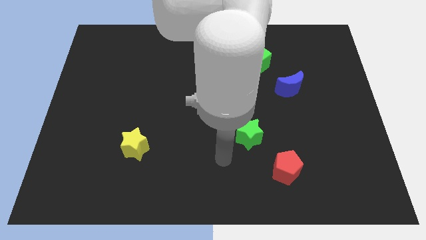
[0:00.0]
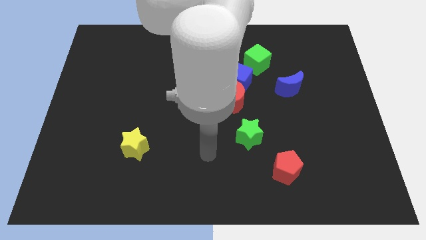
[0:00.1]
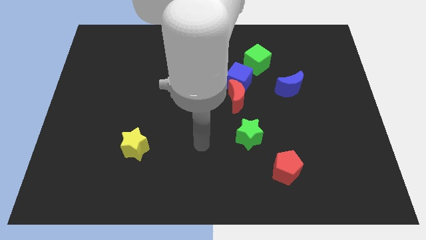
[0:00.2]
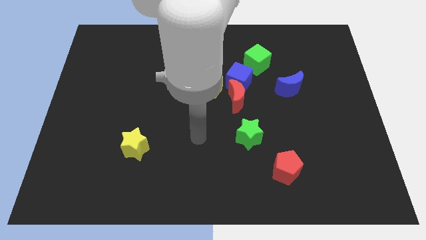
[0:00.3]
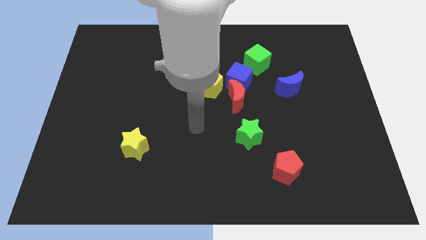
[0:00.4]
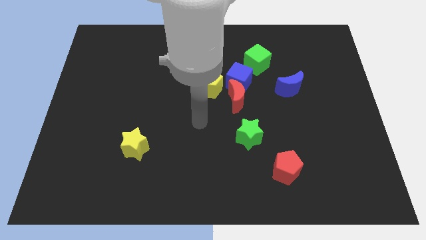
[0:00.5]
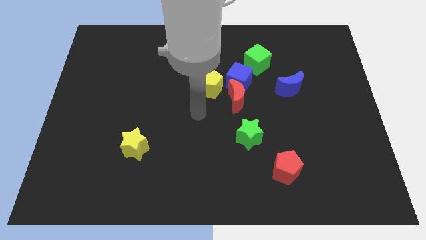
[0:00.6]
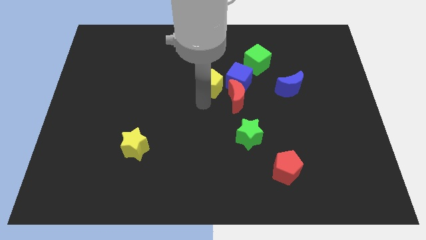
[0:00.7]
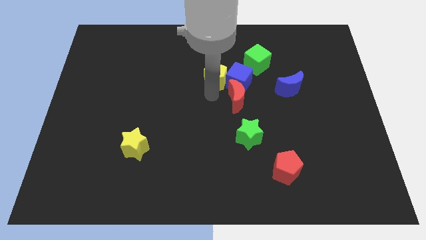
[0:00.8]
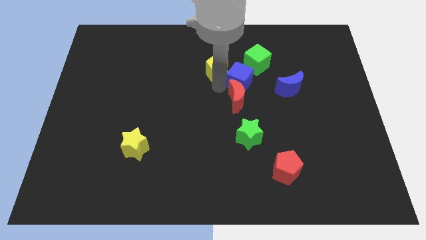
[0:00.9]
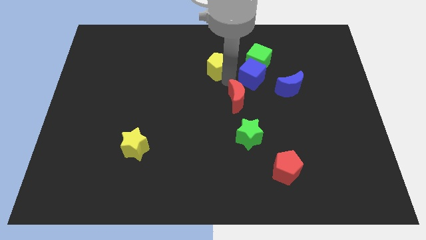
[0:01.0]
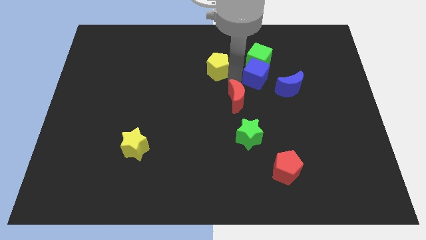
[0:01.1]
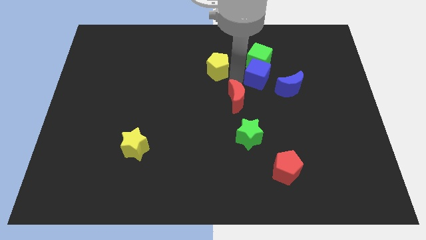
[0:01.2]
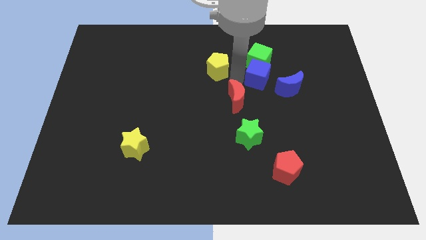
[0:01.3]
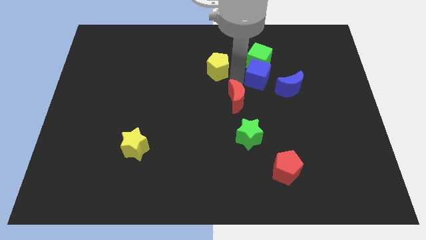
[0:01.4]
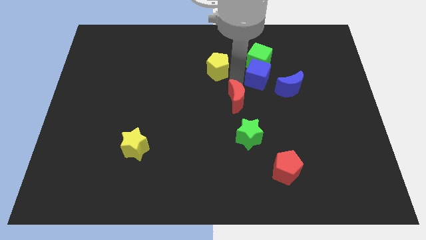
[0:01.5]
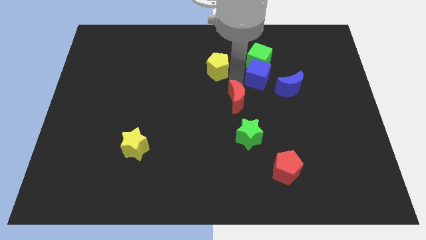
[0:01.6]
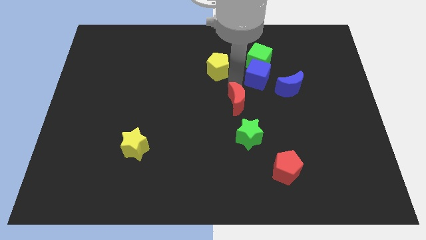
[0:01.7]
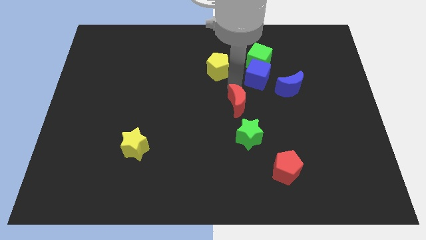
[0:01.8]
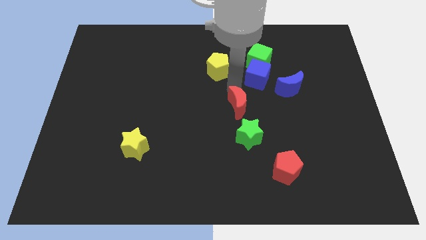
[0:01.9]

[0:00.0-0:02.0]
separate the red moon from the blue cube and yellow pentagon

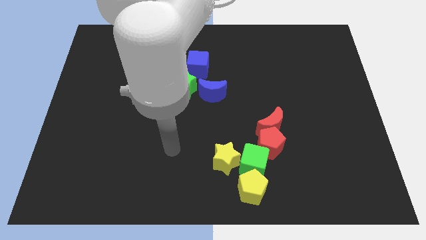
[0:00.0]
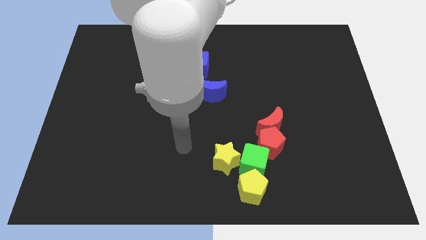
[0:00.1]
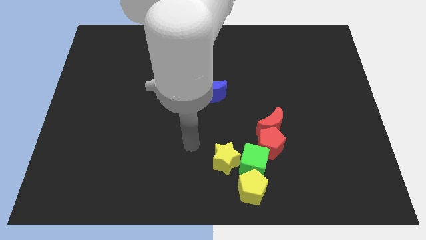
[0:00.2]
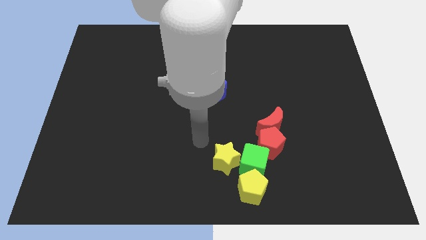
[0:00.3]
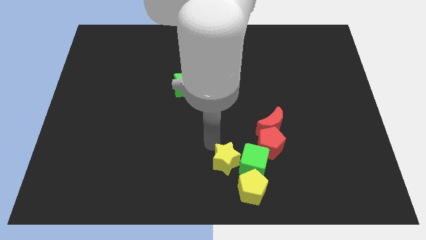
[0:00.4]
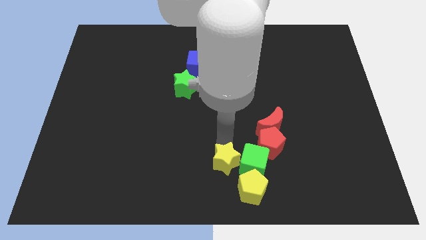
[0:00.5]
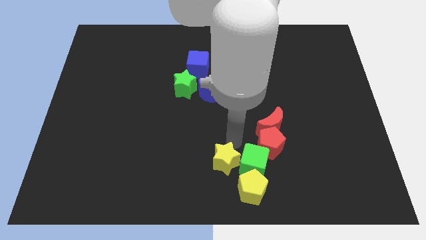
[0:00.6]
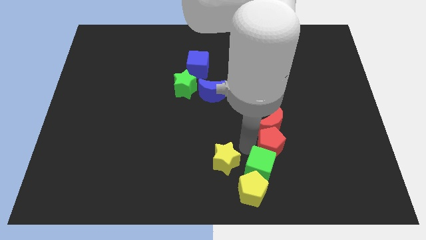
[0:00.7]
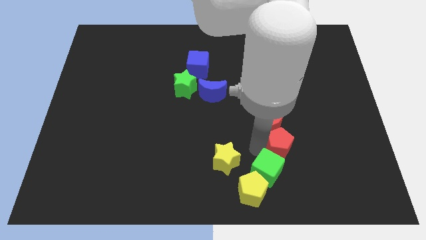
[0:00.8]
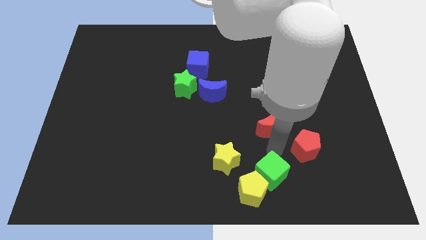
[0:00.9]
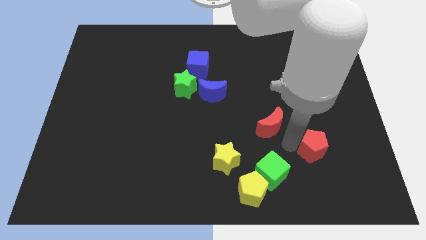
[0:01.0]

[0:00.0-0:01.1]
separate the red moon from the red pentagon

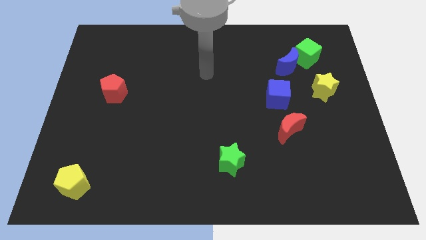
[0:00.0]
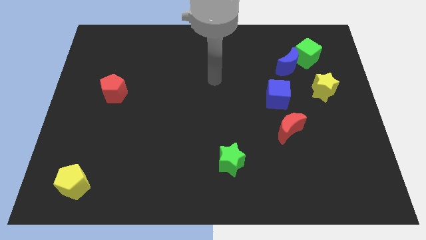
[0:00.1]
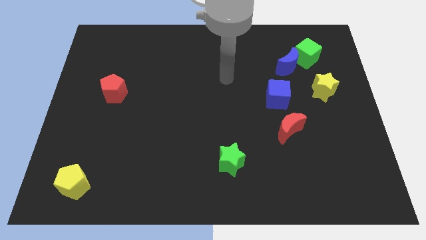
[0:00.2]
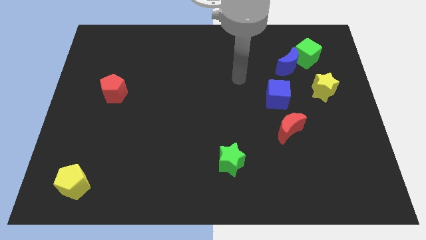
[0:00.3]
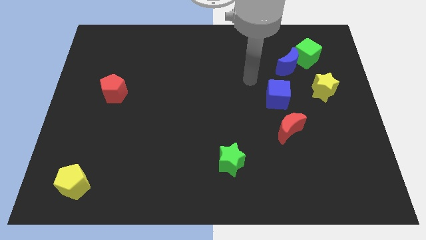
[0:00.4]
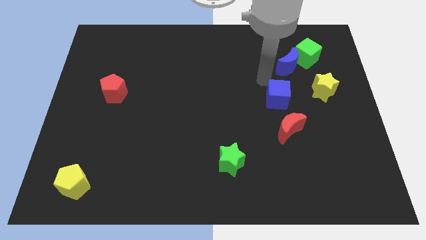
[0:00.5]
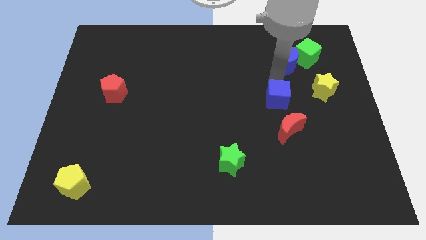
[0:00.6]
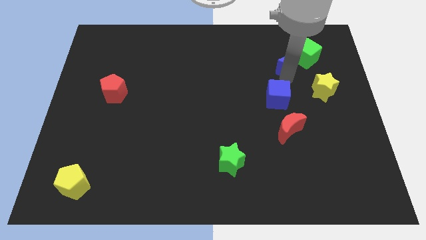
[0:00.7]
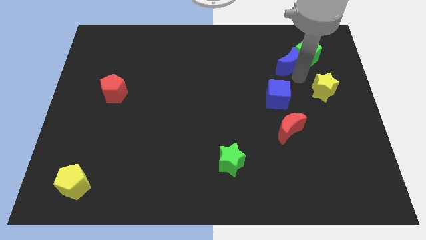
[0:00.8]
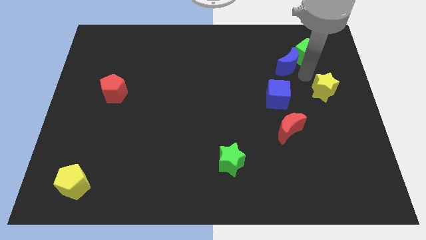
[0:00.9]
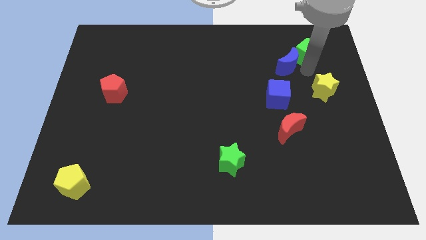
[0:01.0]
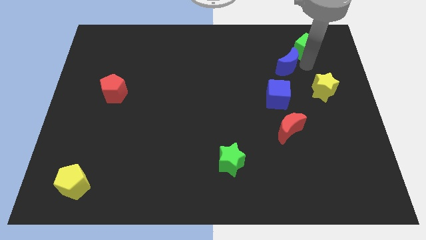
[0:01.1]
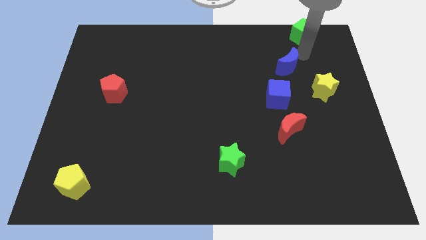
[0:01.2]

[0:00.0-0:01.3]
separate the blue moon from the green cube

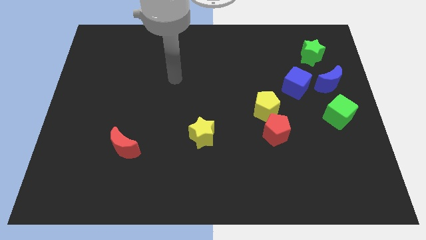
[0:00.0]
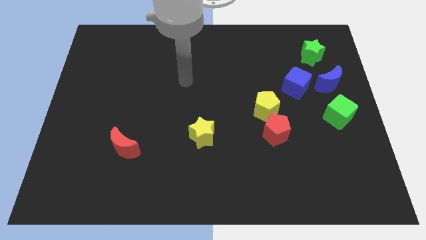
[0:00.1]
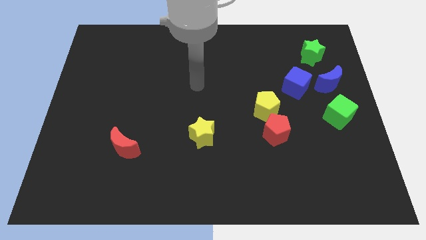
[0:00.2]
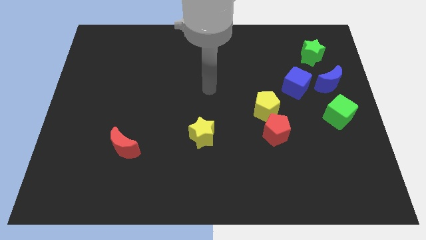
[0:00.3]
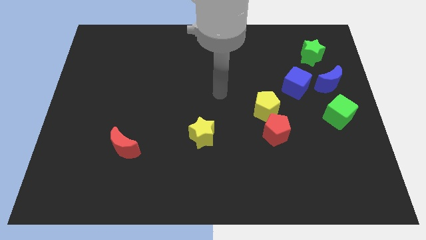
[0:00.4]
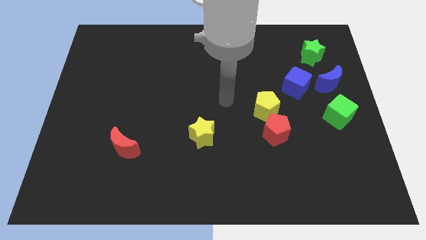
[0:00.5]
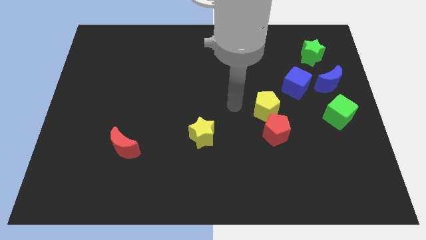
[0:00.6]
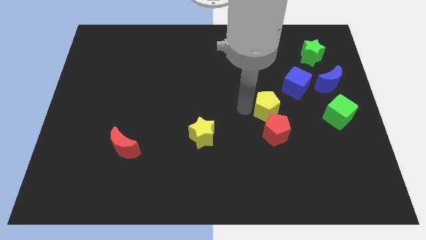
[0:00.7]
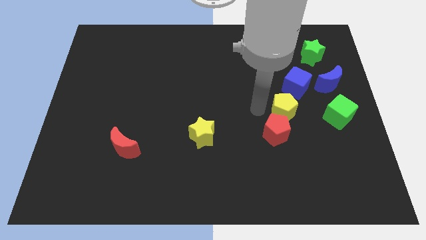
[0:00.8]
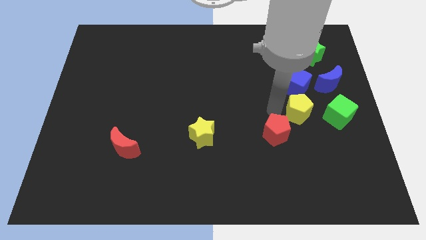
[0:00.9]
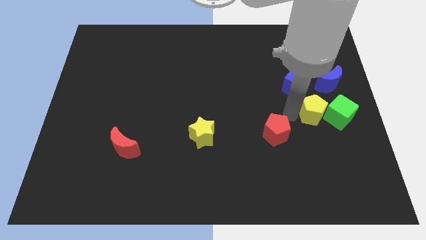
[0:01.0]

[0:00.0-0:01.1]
pull the red pentagon apart from the yellow pentagon

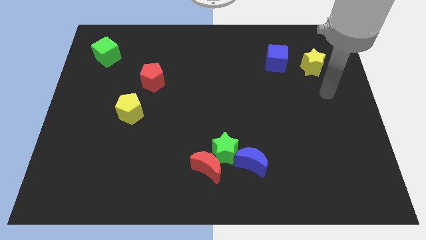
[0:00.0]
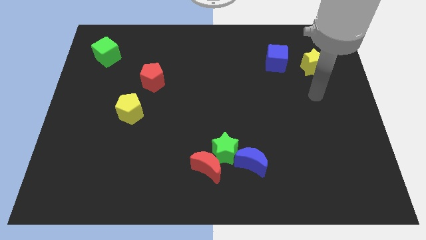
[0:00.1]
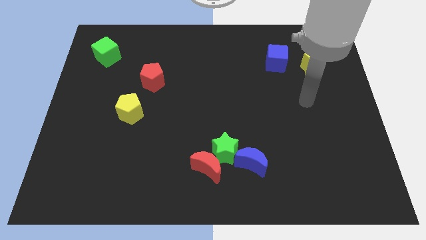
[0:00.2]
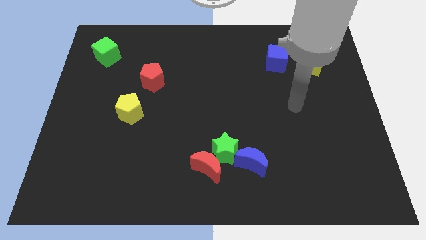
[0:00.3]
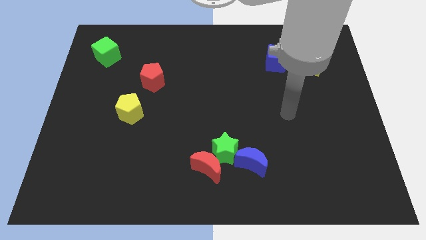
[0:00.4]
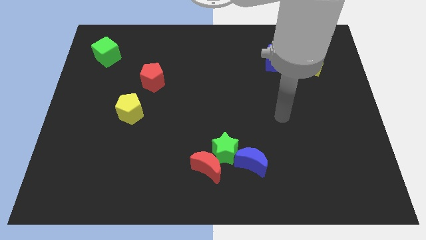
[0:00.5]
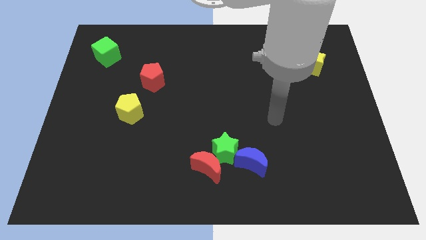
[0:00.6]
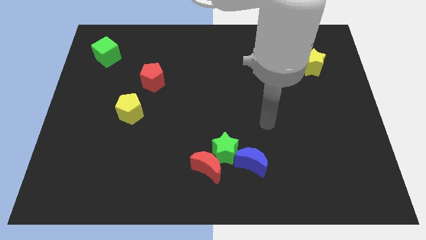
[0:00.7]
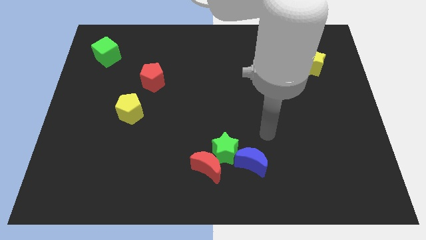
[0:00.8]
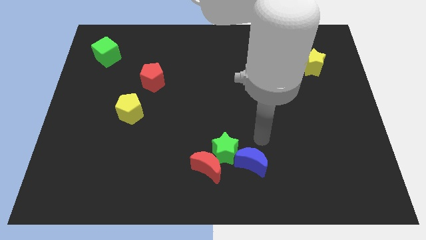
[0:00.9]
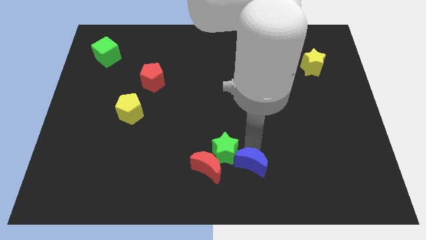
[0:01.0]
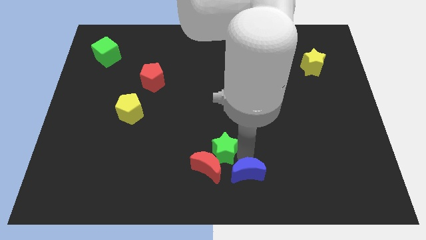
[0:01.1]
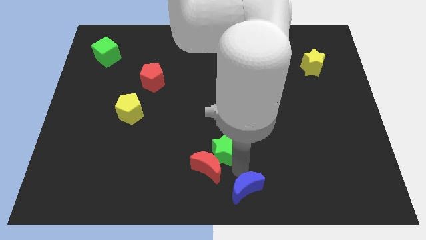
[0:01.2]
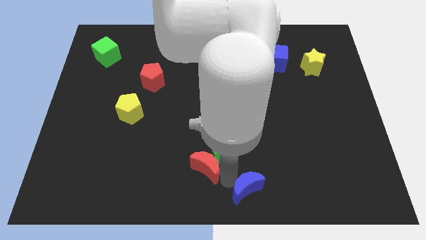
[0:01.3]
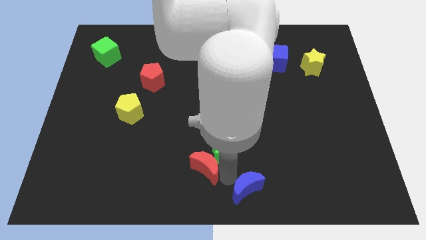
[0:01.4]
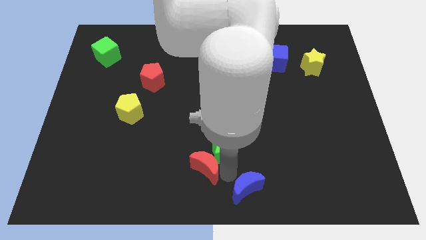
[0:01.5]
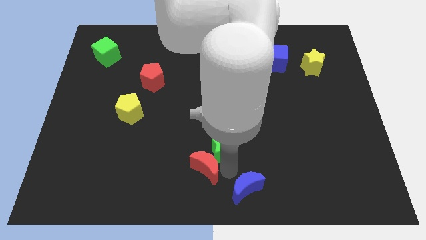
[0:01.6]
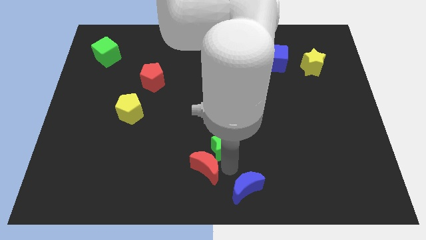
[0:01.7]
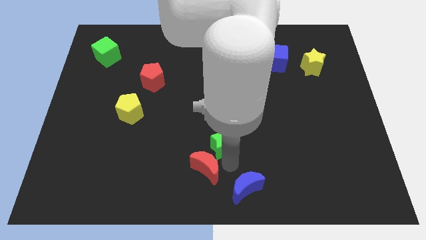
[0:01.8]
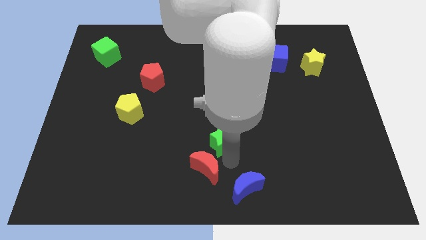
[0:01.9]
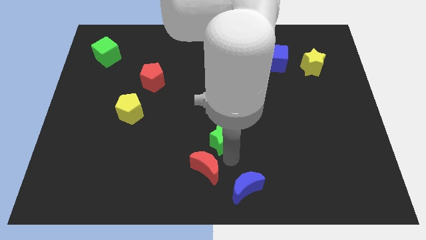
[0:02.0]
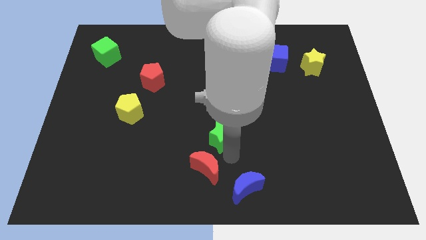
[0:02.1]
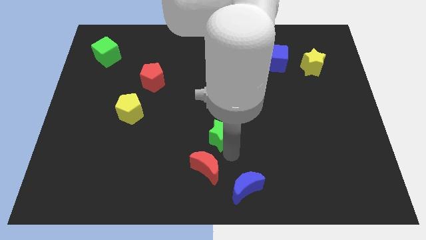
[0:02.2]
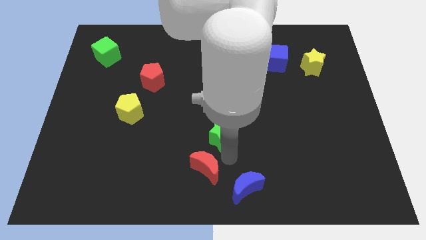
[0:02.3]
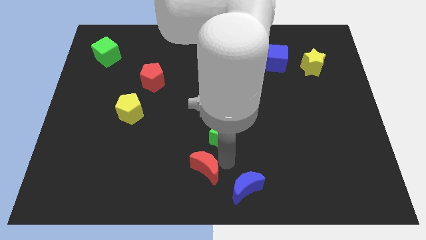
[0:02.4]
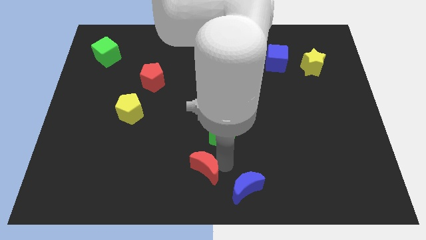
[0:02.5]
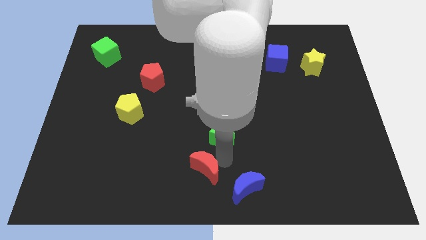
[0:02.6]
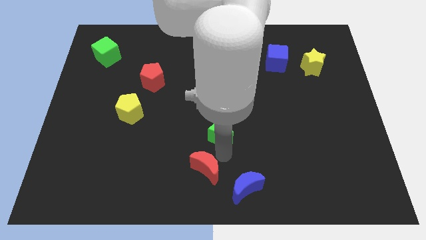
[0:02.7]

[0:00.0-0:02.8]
pull the green star apart from the red moon and blue moon

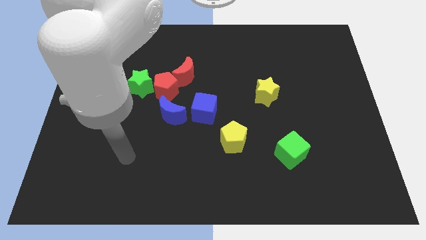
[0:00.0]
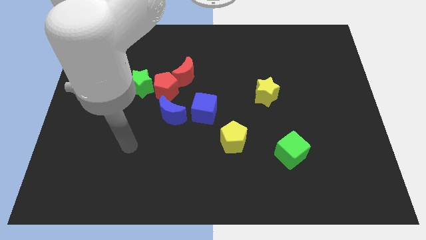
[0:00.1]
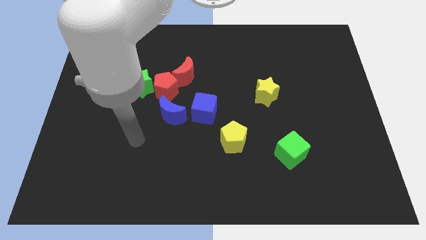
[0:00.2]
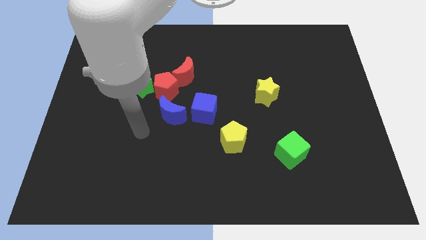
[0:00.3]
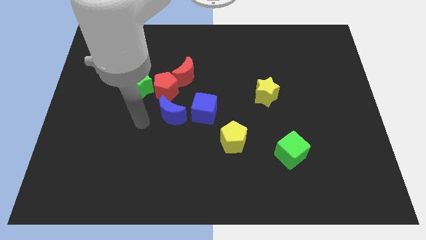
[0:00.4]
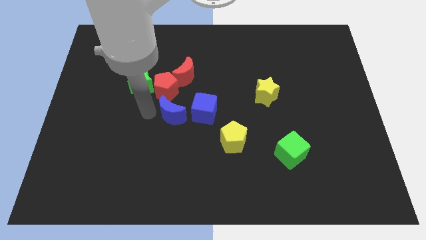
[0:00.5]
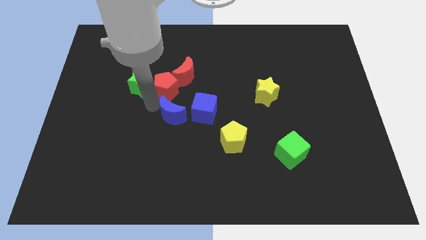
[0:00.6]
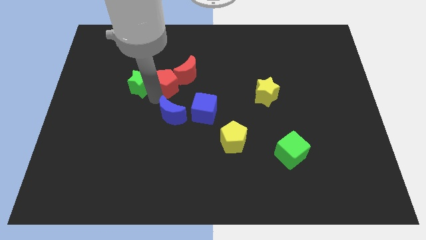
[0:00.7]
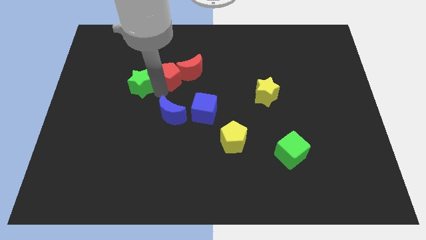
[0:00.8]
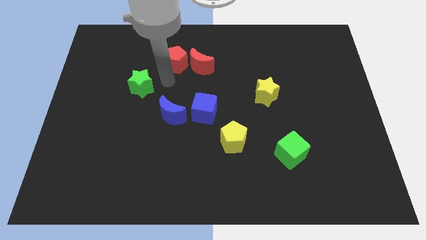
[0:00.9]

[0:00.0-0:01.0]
separate the green star from the red pentagon
